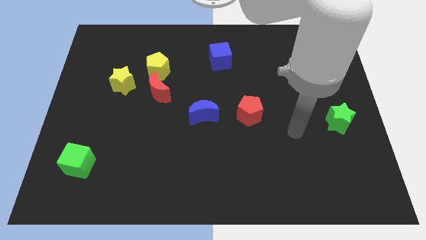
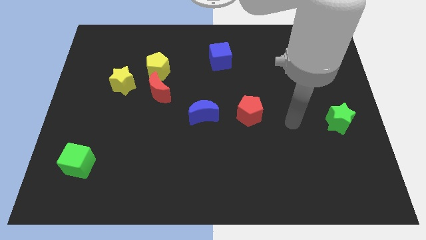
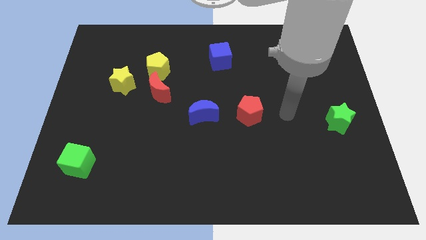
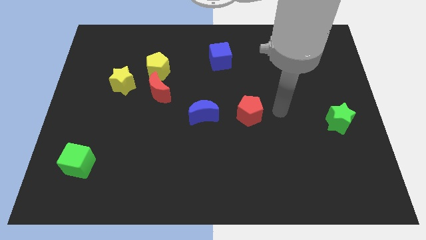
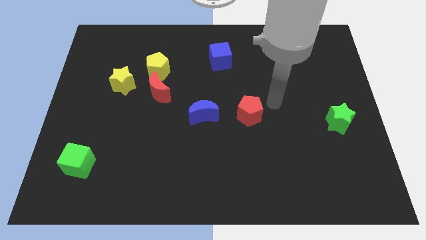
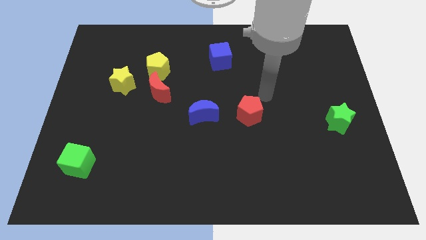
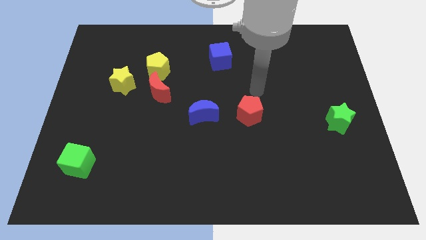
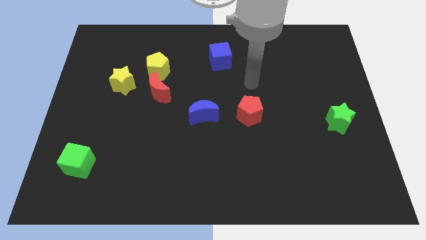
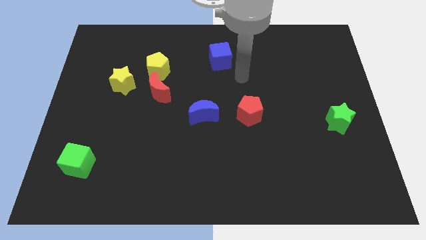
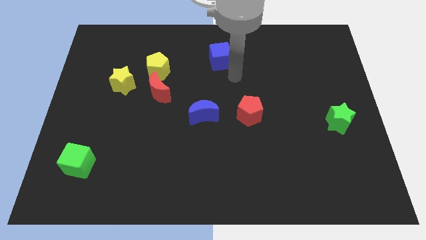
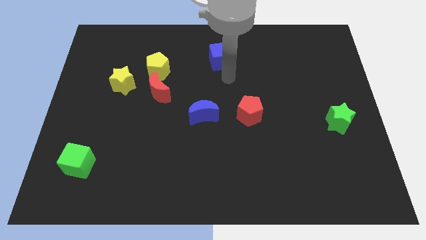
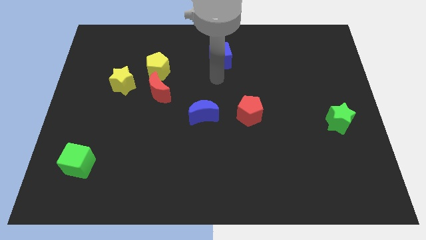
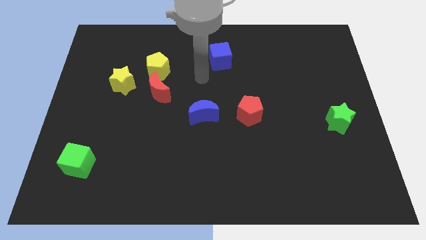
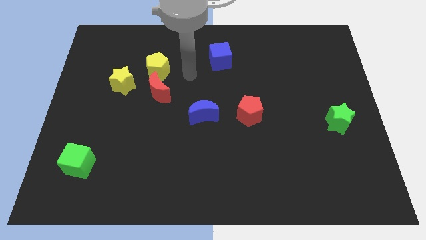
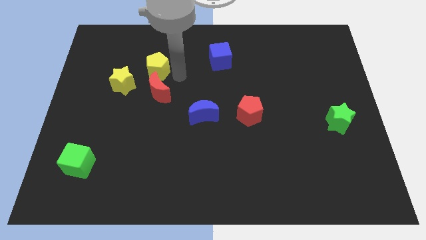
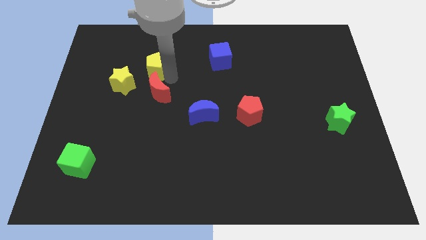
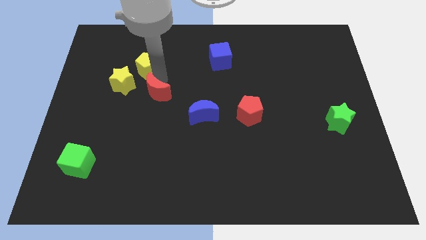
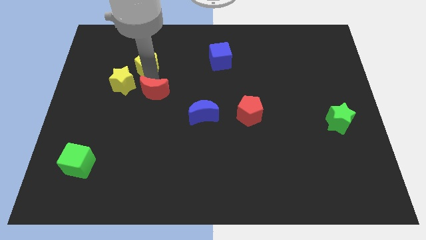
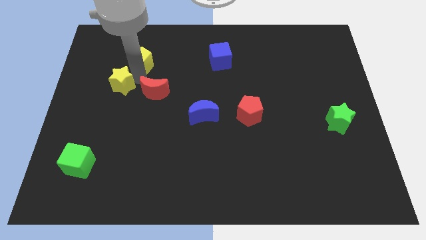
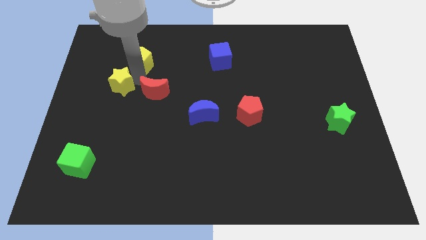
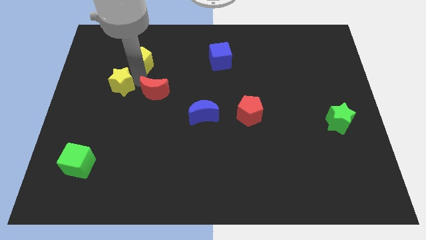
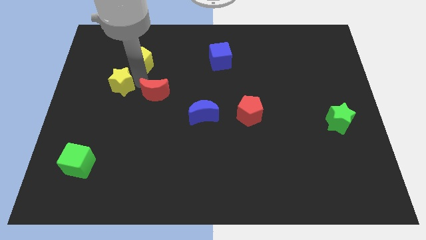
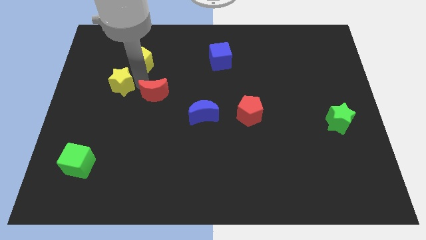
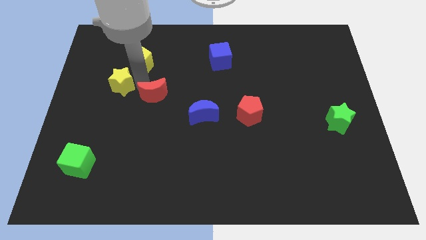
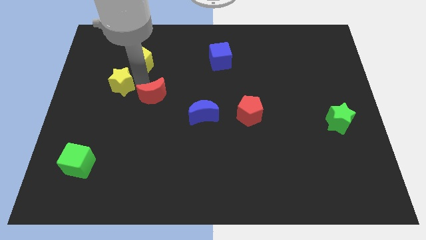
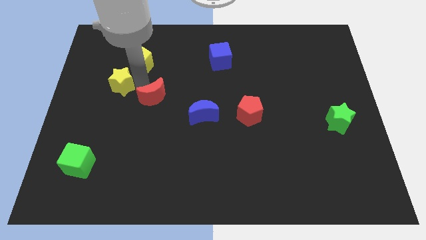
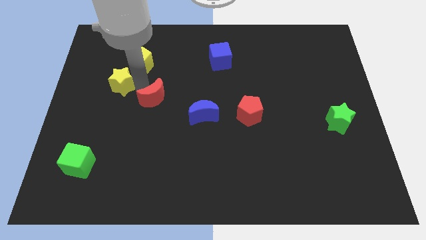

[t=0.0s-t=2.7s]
move the red moon away from the yellow pentagon and yellow star

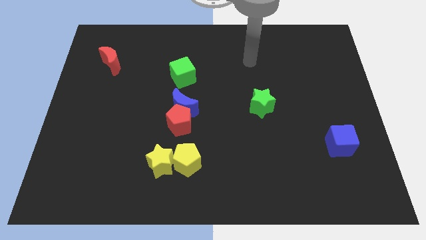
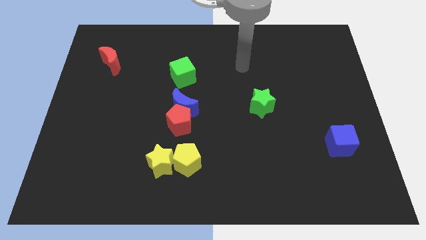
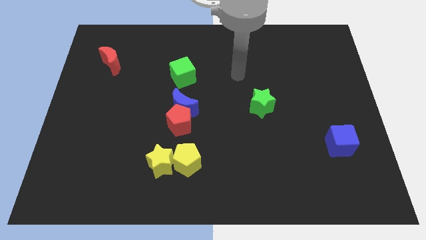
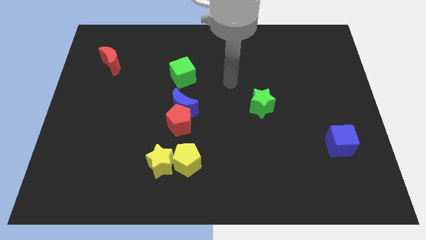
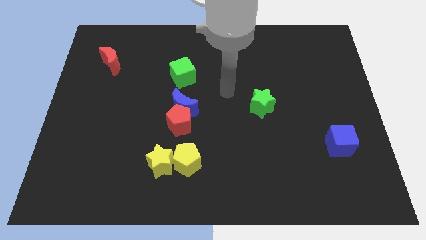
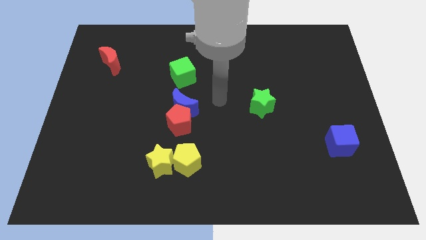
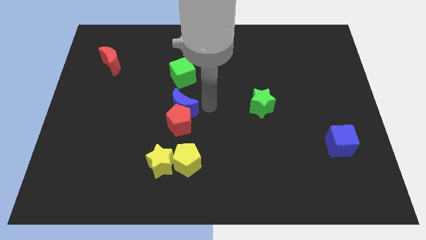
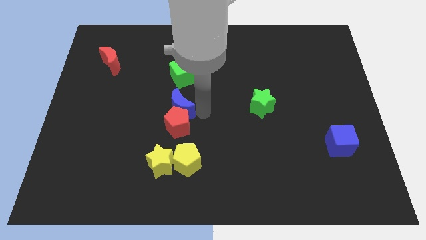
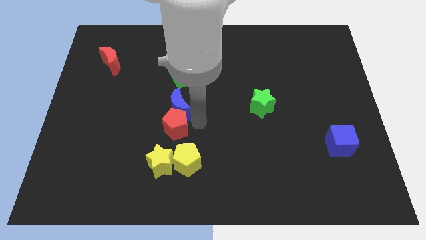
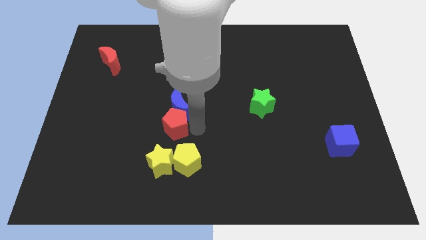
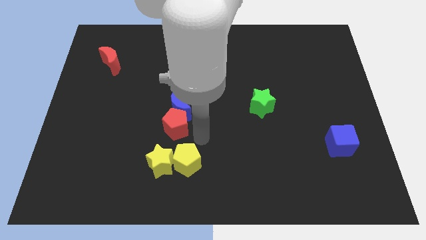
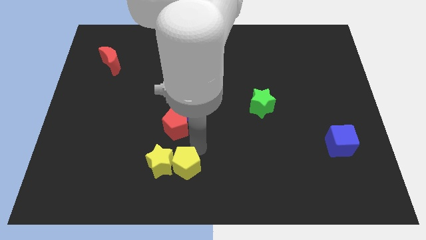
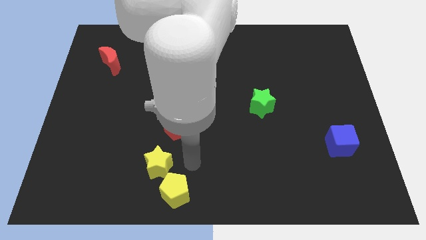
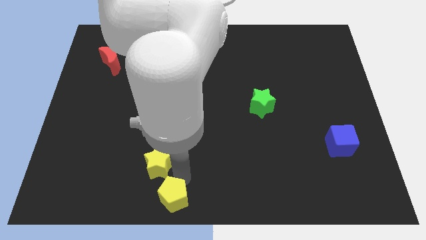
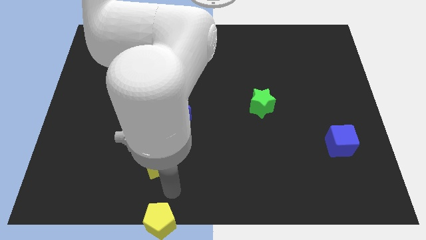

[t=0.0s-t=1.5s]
pull the yellow star apart from the yellow pentagon

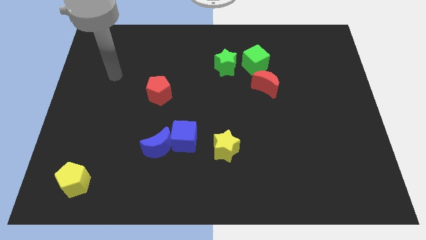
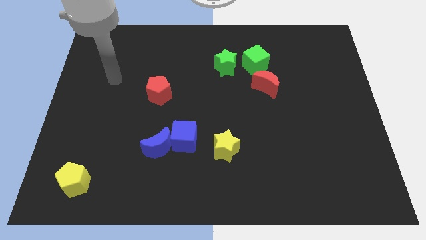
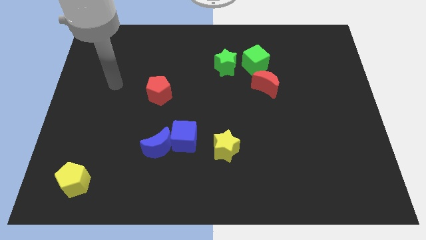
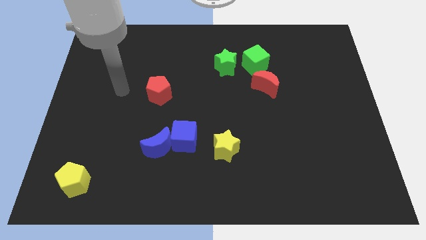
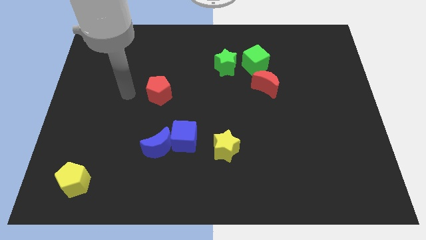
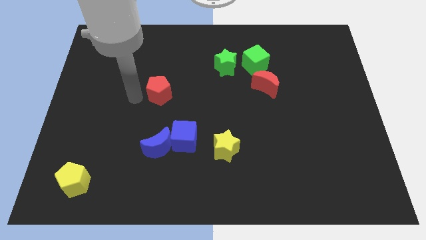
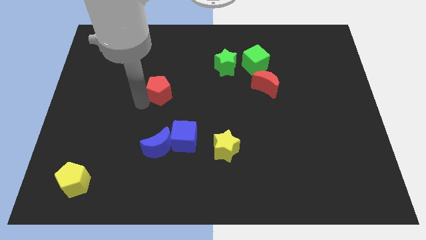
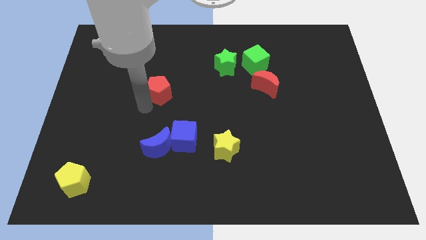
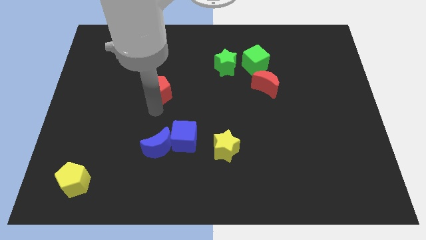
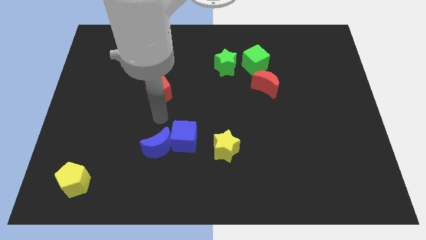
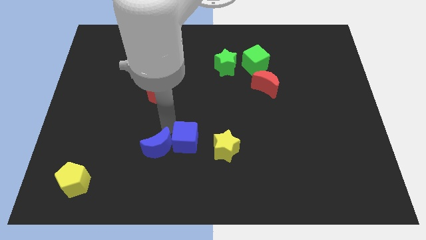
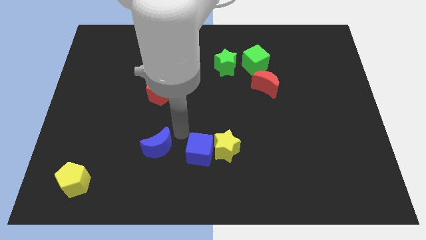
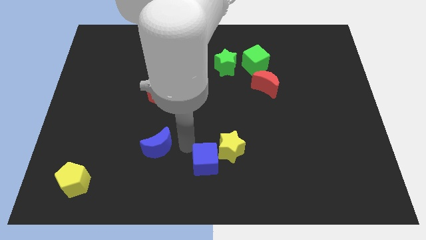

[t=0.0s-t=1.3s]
move the blue moon away from the blue cube

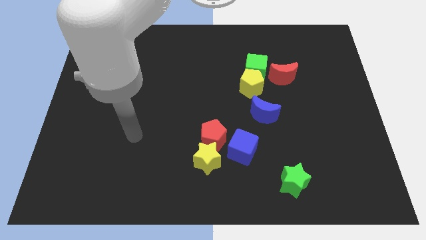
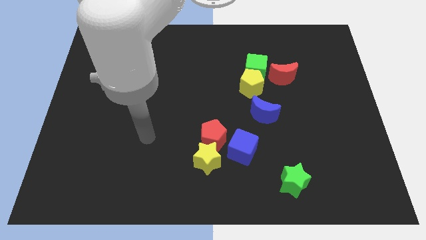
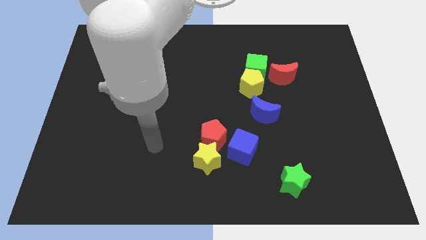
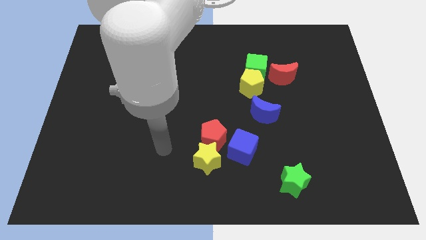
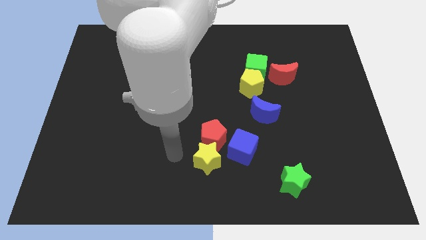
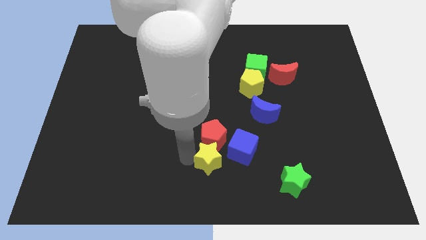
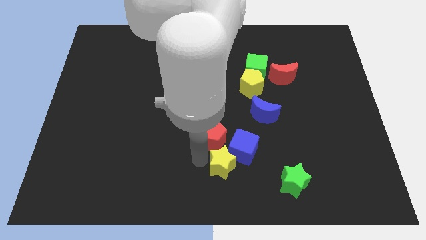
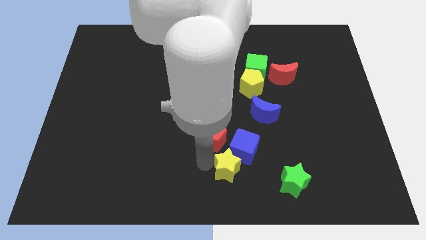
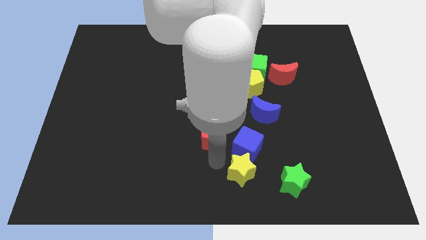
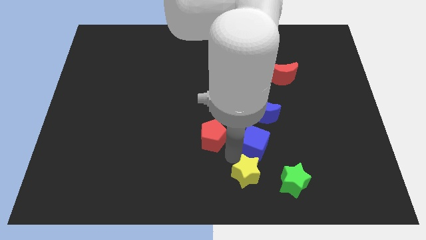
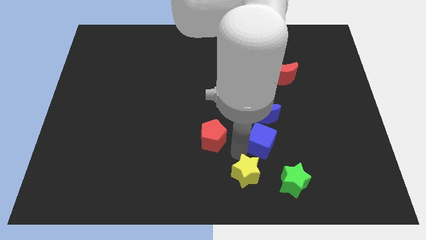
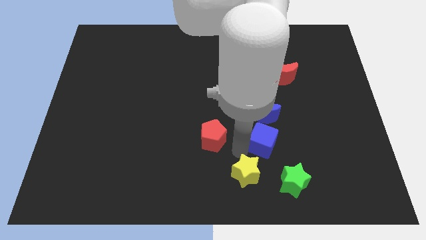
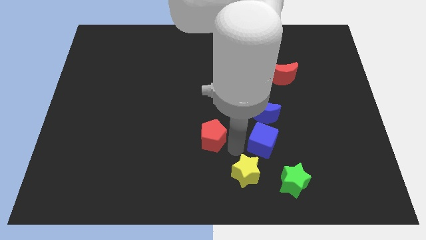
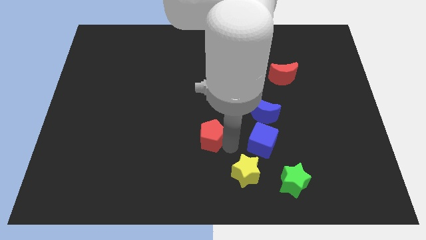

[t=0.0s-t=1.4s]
move the red pentagon away from the yellow star and blue cube

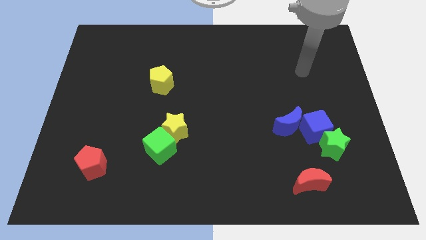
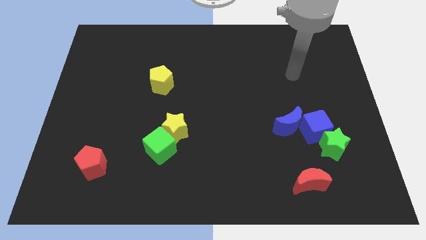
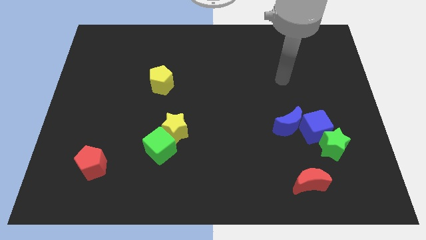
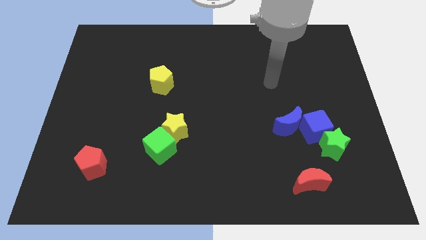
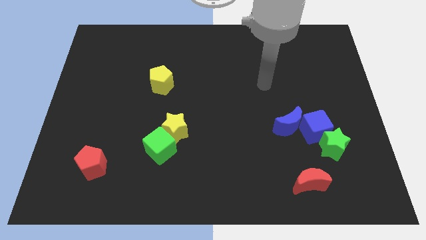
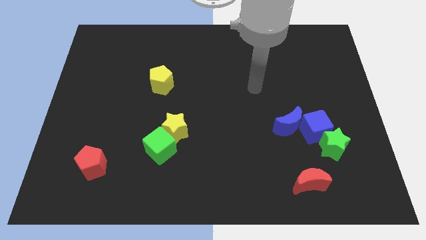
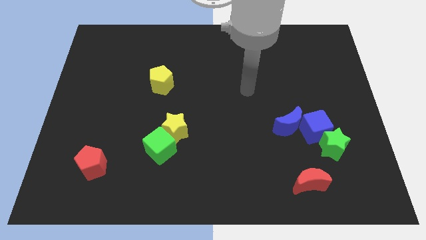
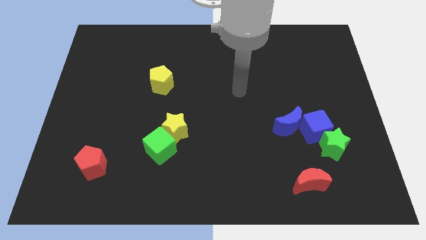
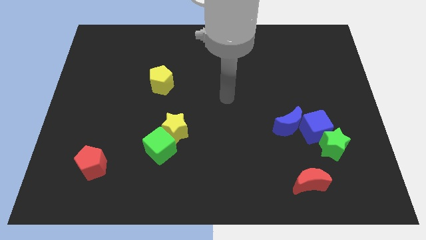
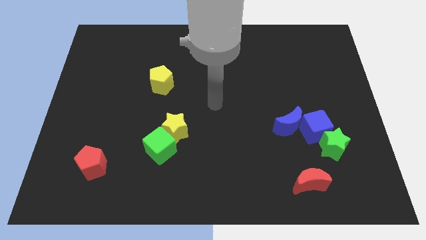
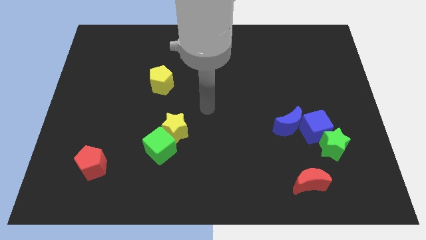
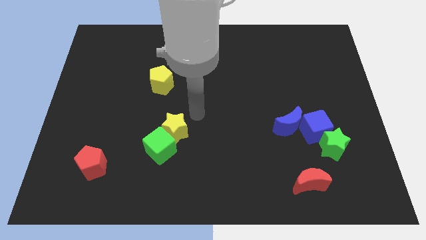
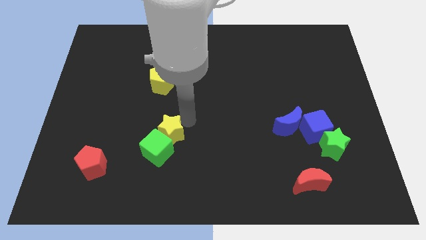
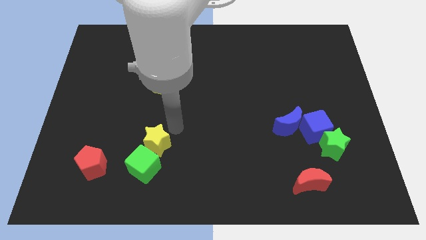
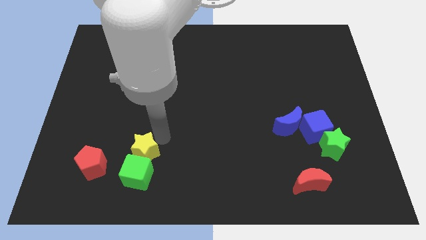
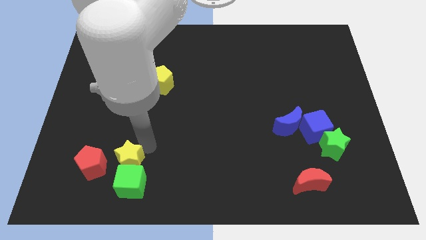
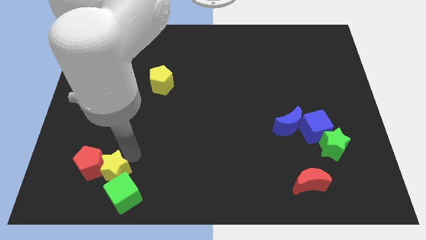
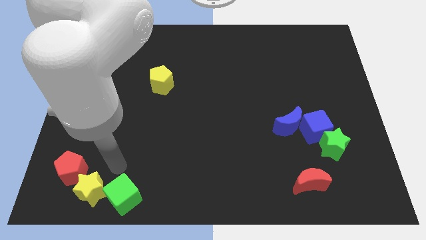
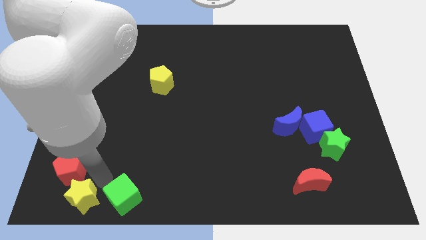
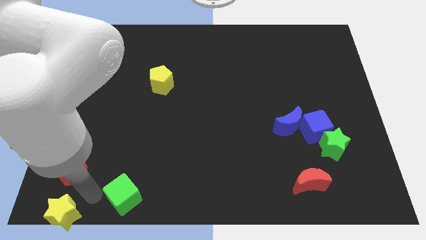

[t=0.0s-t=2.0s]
pull the green cube apart from the yellow star

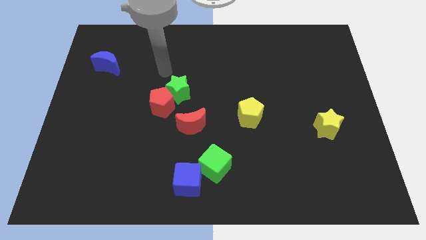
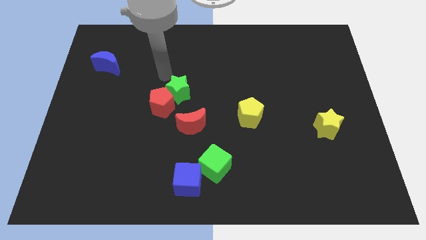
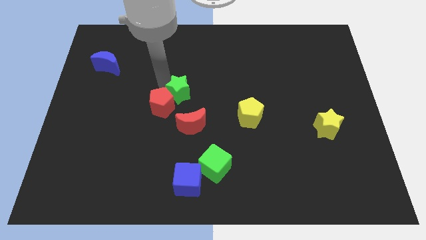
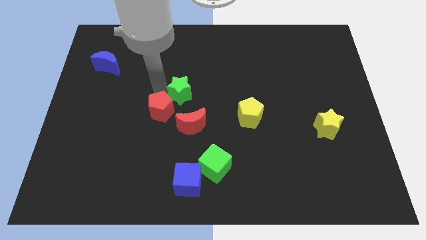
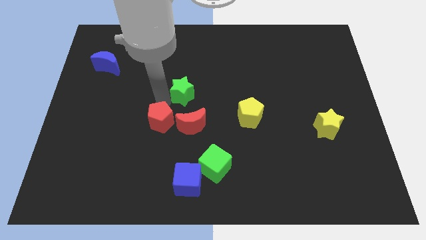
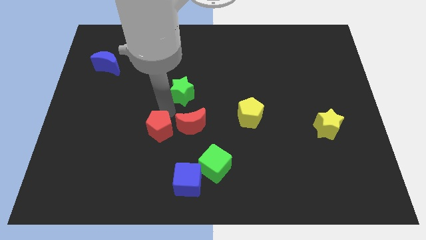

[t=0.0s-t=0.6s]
separate the green star from the red pentagon
